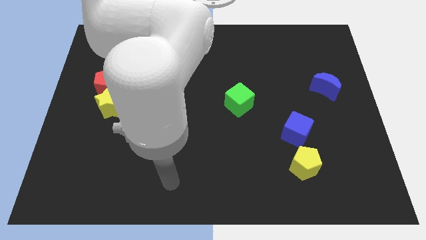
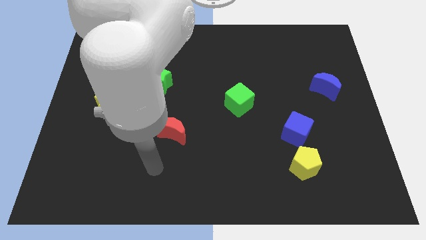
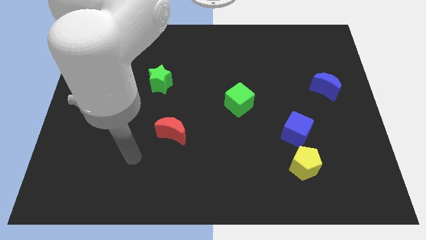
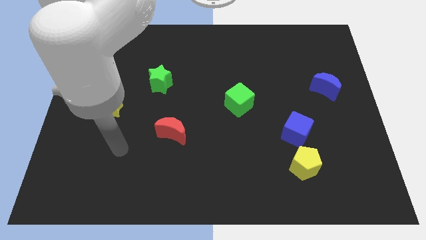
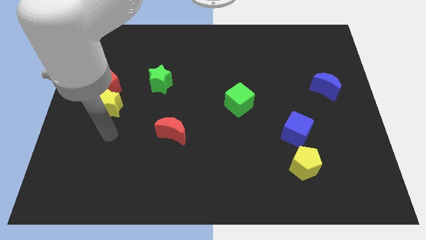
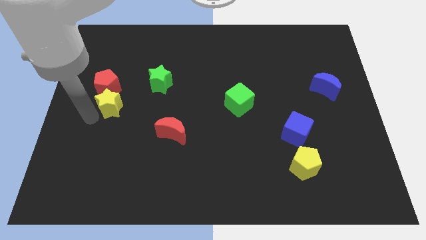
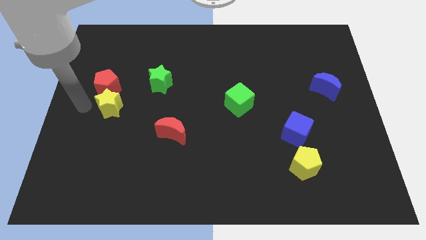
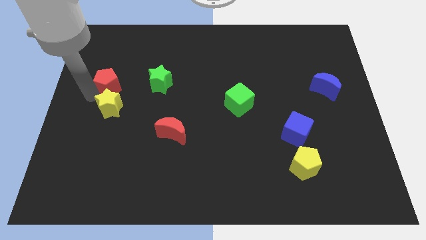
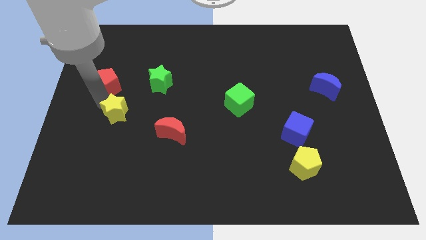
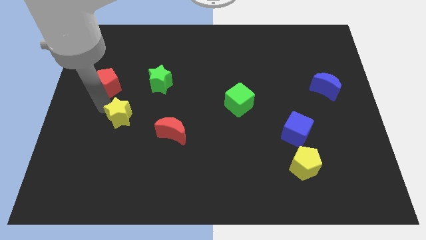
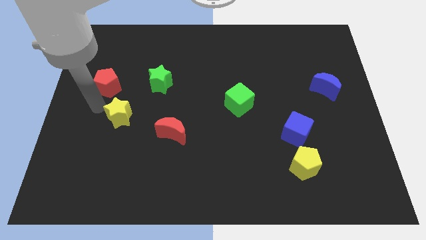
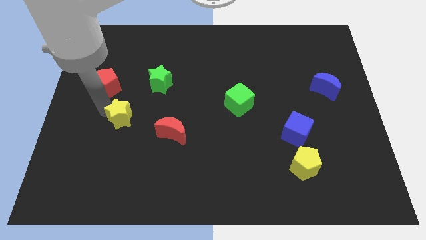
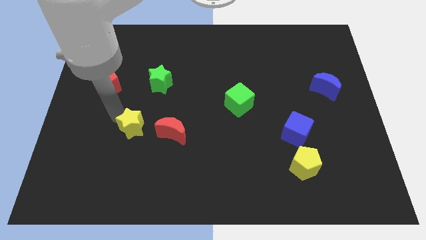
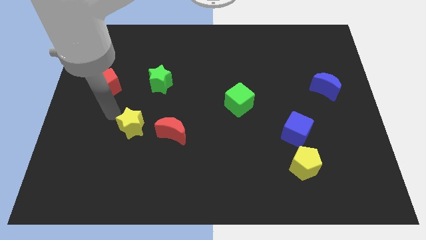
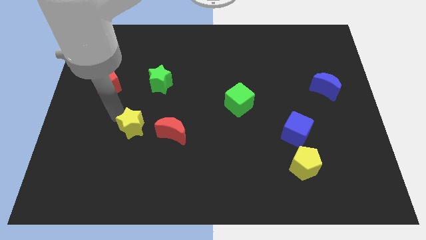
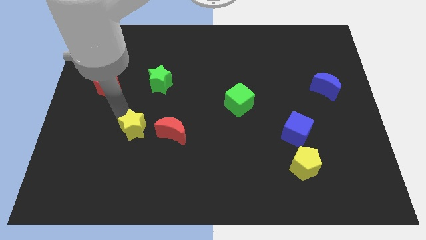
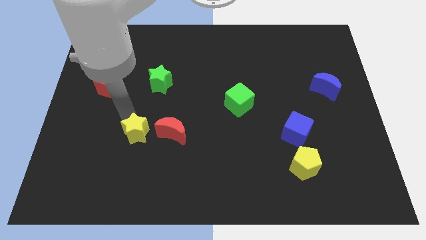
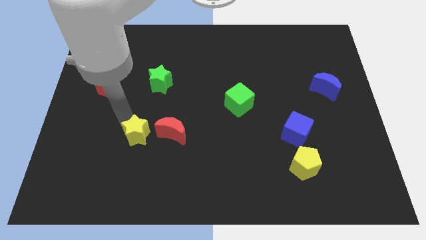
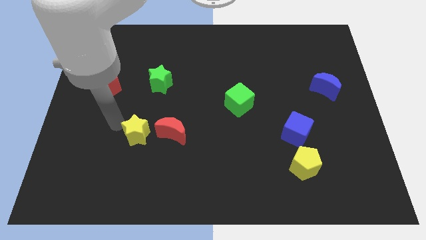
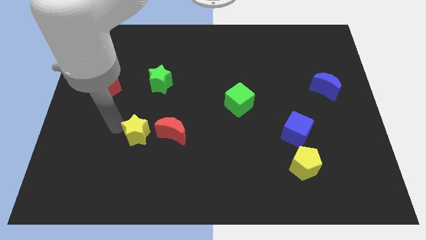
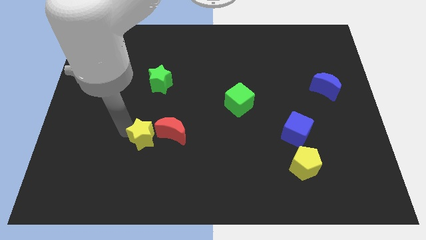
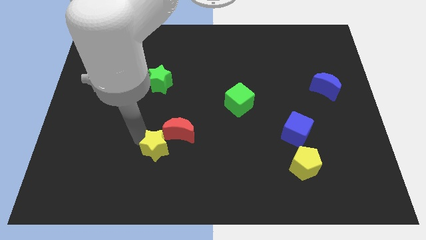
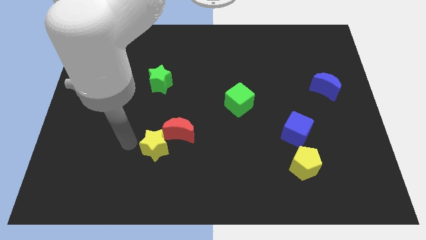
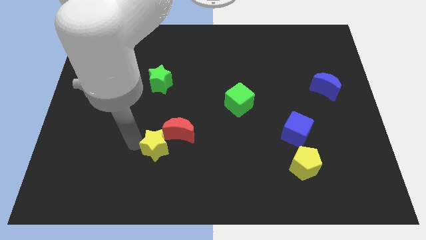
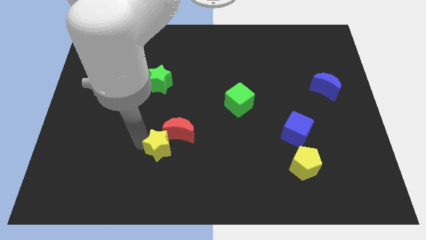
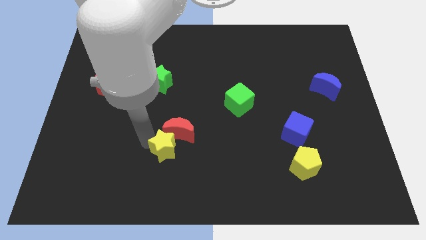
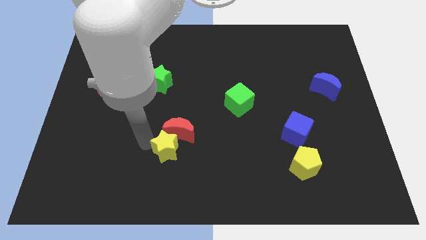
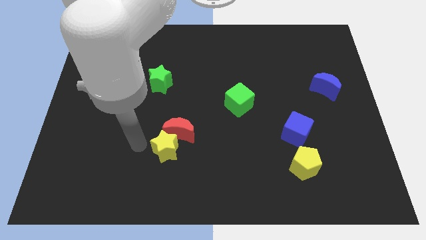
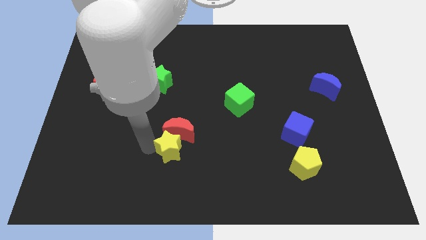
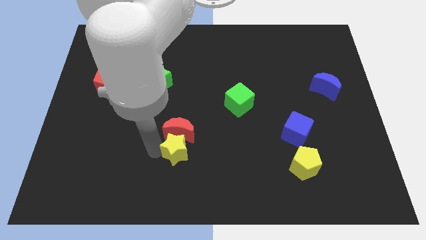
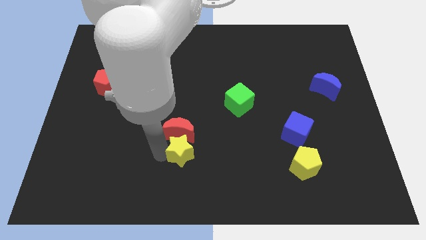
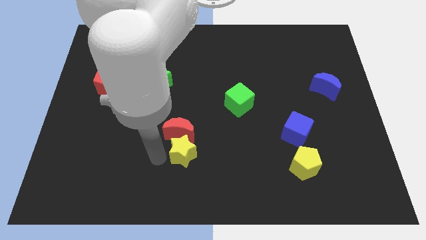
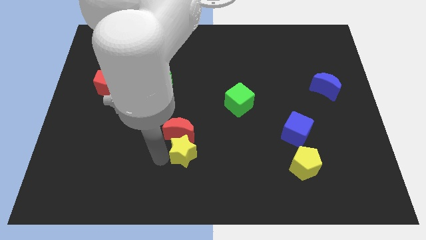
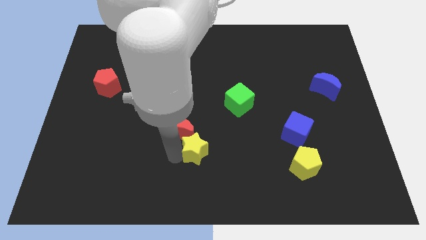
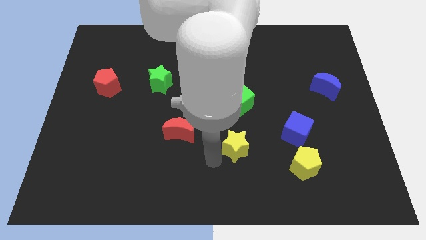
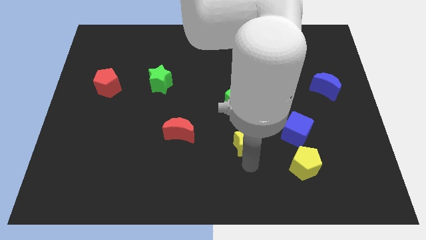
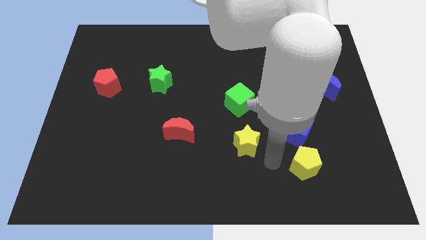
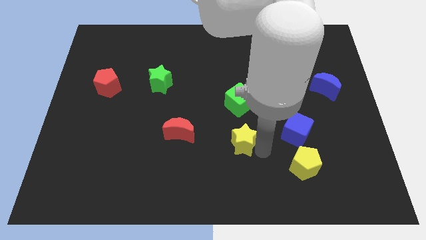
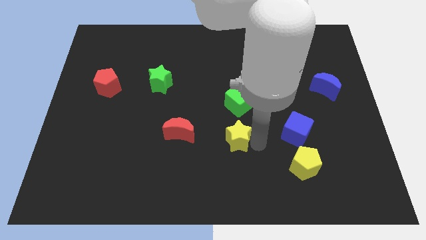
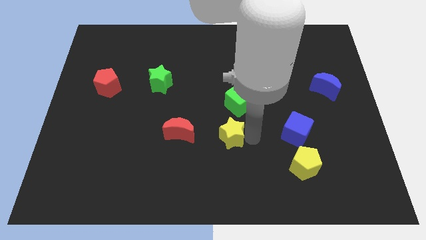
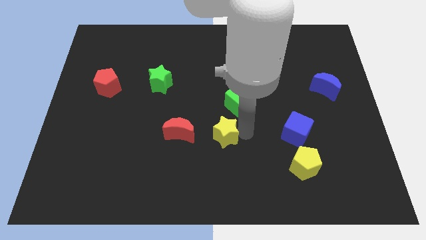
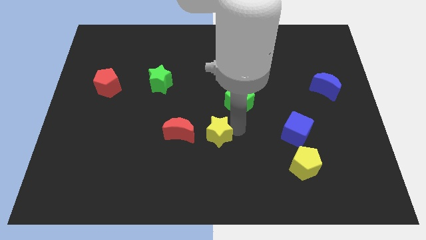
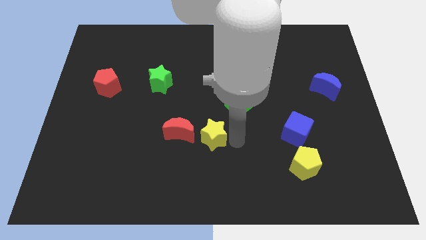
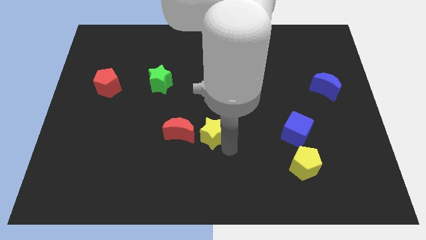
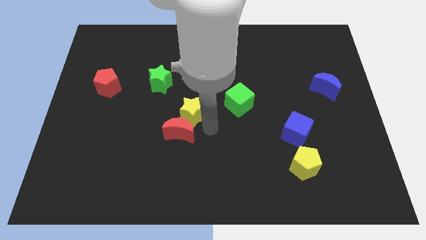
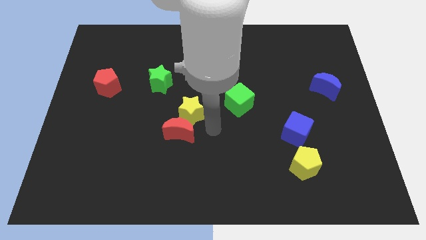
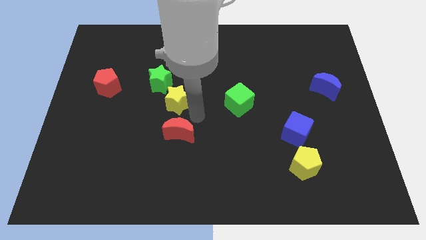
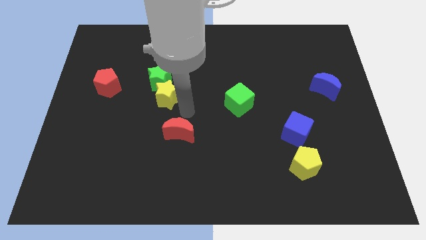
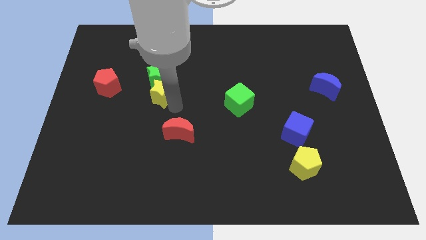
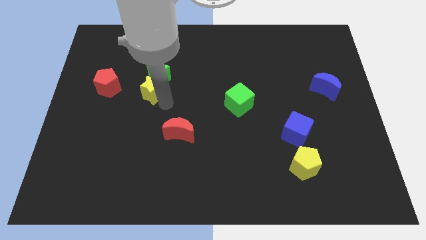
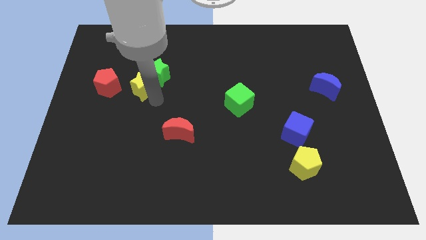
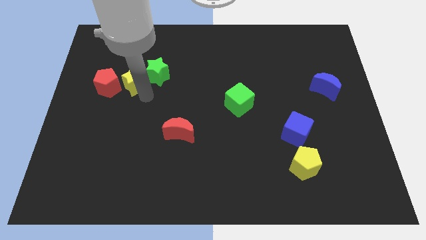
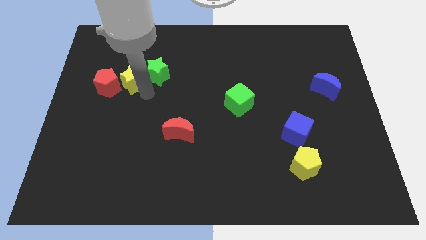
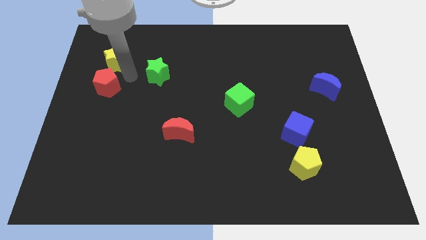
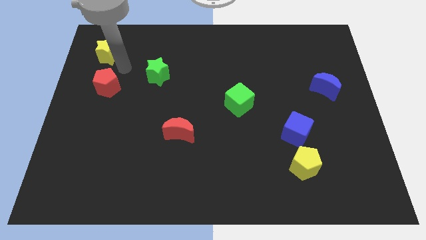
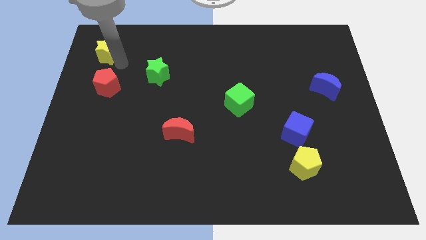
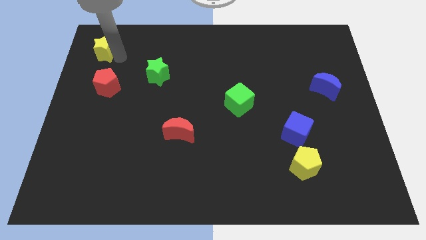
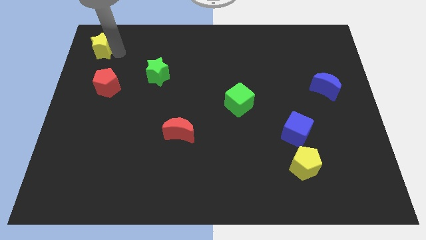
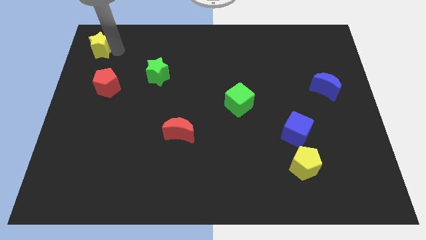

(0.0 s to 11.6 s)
move the yellow star to the top left corner
